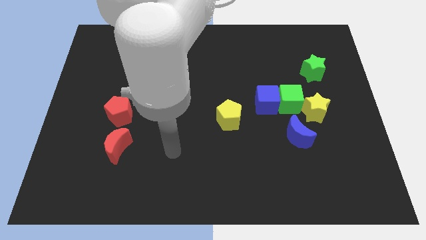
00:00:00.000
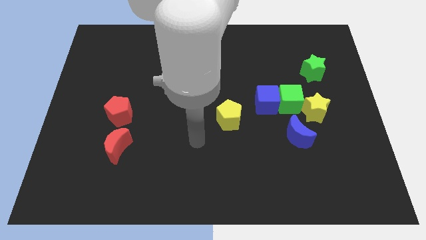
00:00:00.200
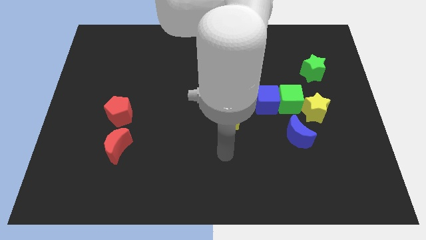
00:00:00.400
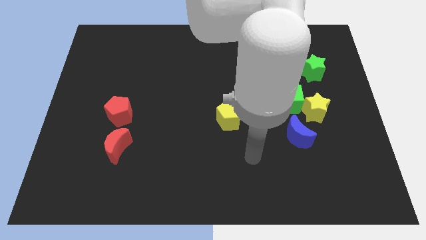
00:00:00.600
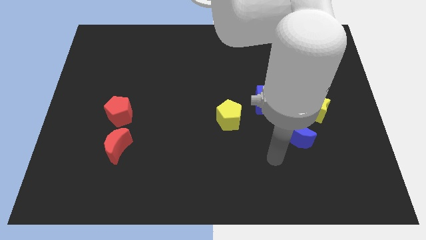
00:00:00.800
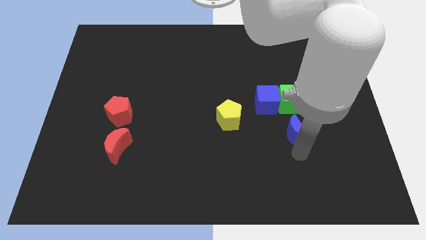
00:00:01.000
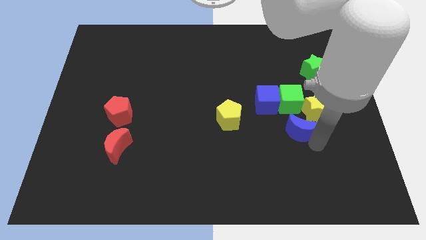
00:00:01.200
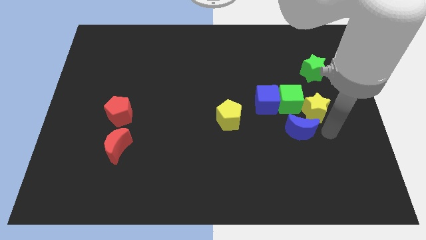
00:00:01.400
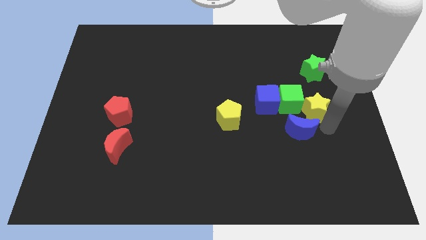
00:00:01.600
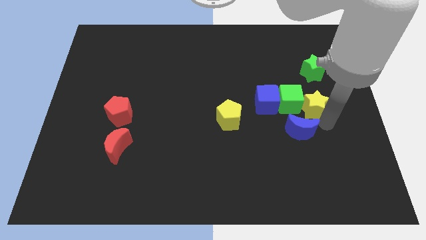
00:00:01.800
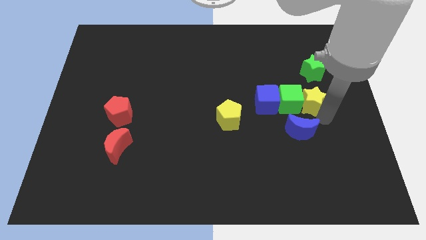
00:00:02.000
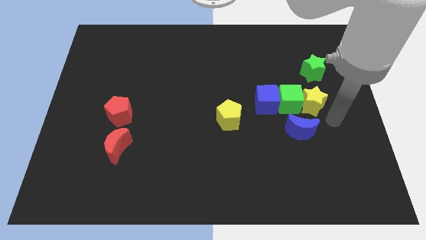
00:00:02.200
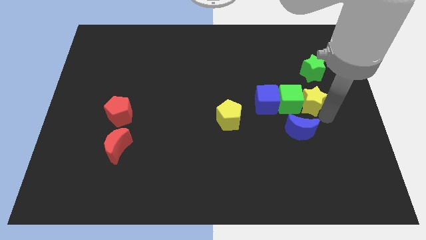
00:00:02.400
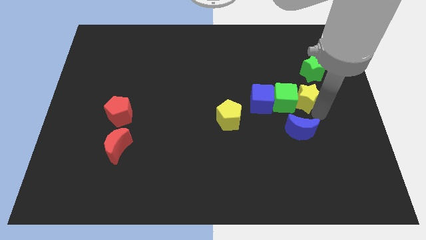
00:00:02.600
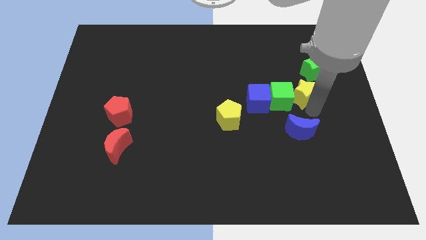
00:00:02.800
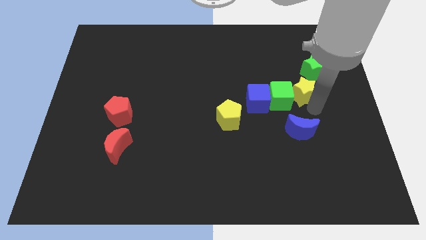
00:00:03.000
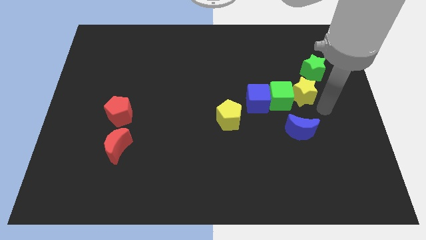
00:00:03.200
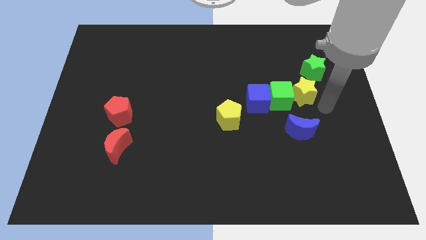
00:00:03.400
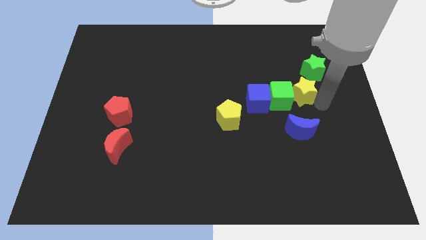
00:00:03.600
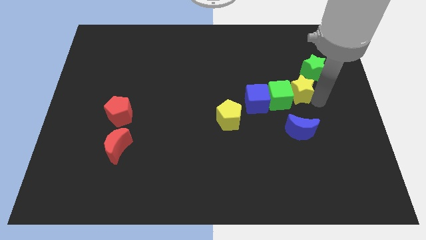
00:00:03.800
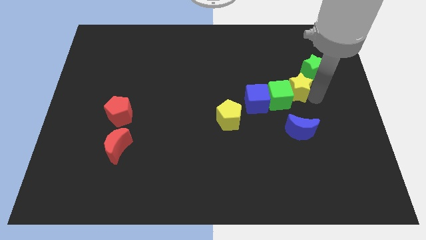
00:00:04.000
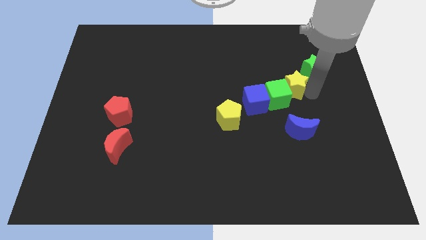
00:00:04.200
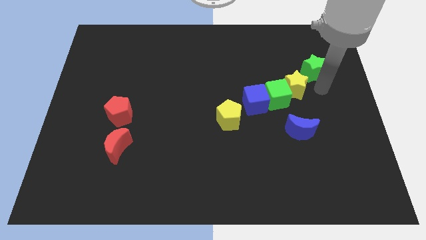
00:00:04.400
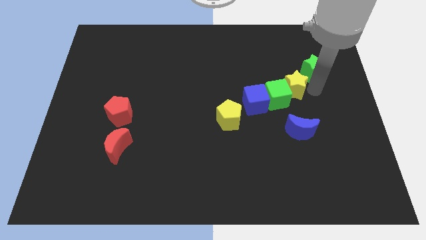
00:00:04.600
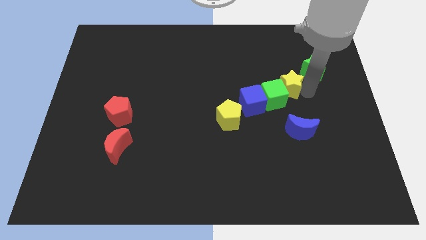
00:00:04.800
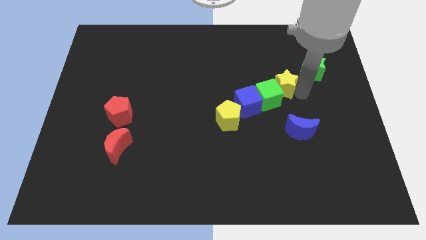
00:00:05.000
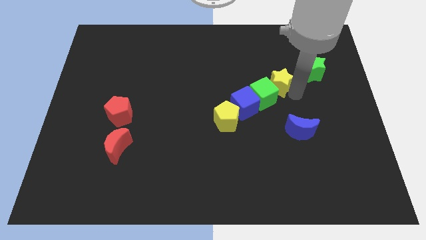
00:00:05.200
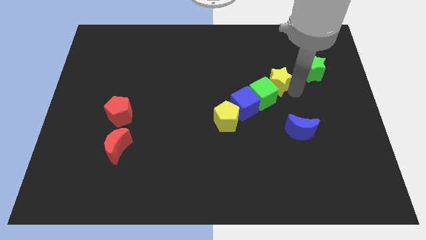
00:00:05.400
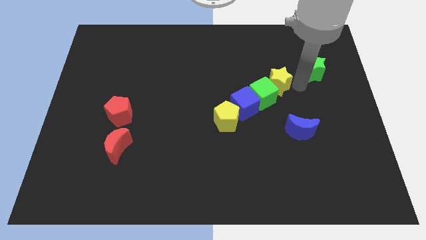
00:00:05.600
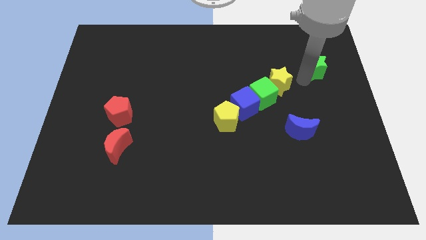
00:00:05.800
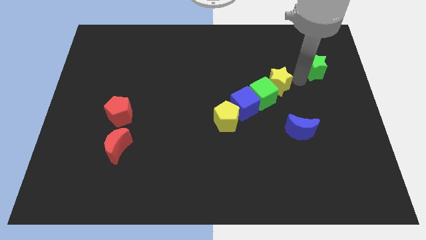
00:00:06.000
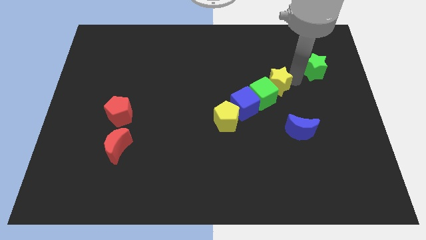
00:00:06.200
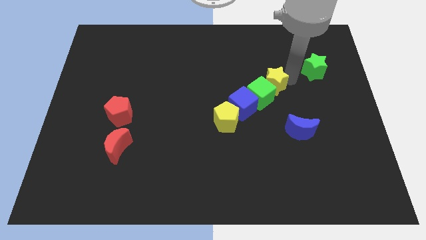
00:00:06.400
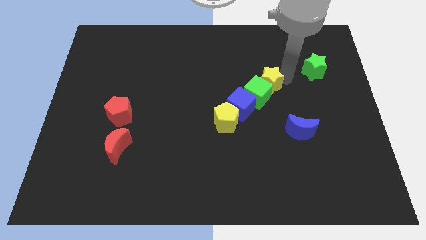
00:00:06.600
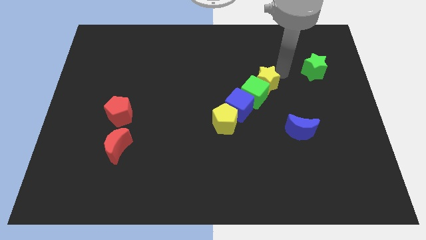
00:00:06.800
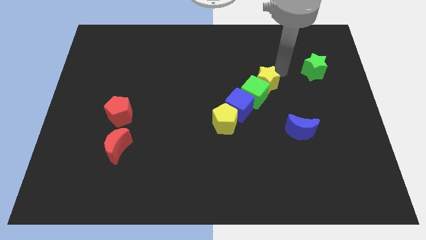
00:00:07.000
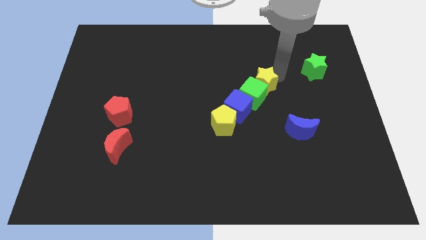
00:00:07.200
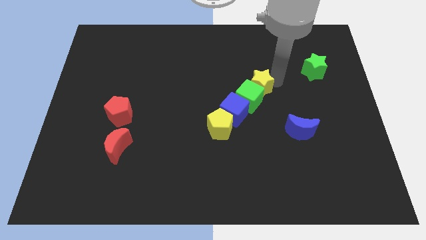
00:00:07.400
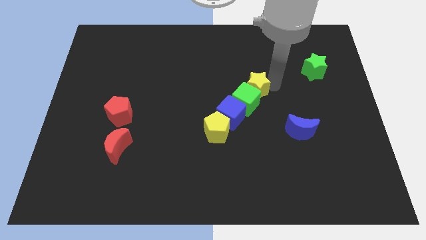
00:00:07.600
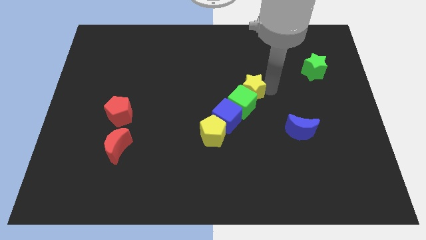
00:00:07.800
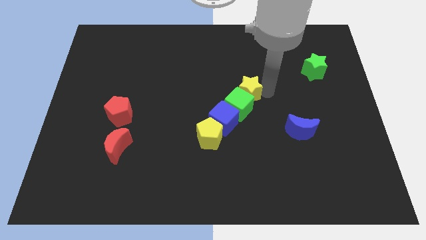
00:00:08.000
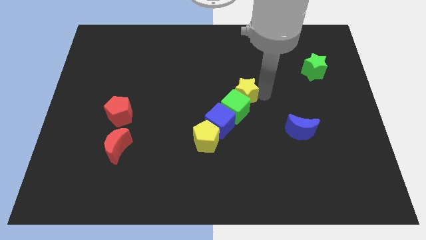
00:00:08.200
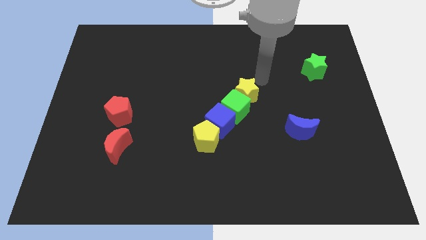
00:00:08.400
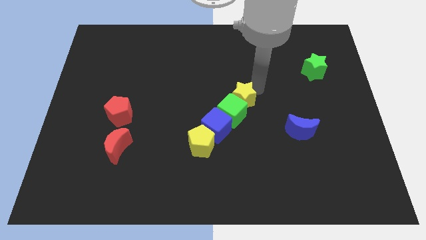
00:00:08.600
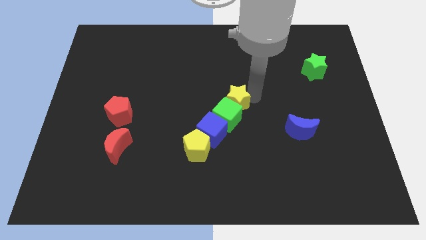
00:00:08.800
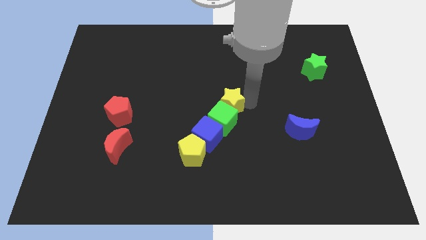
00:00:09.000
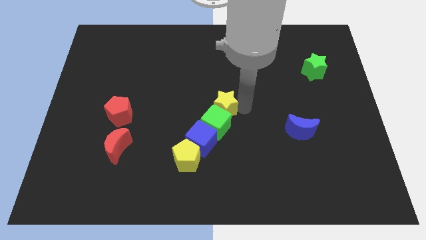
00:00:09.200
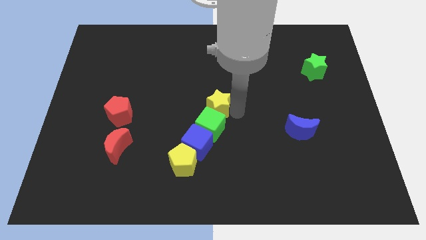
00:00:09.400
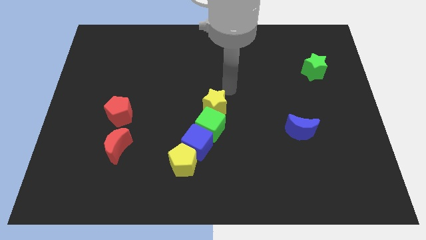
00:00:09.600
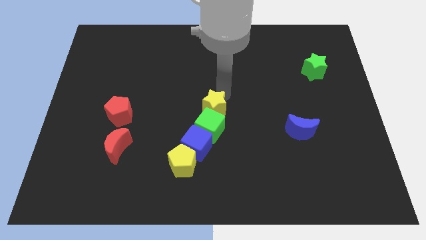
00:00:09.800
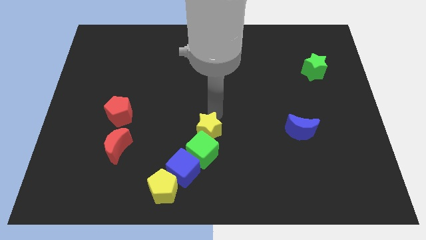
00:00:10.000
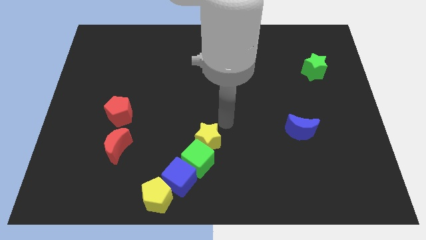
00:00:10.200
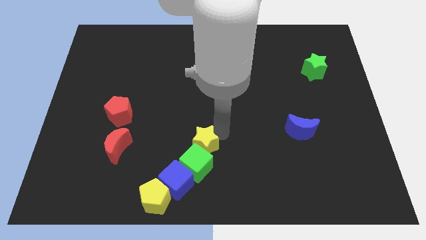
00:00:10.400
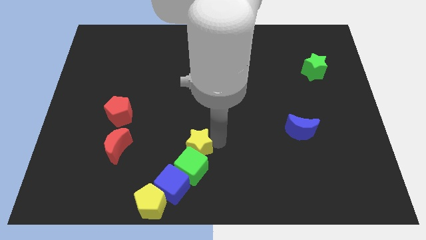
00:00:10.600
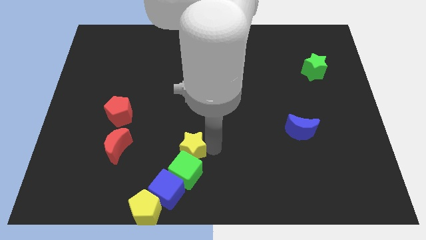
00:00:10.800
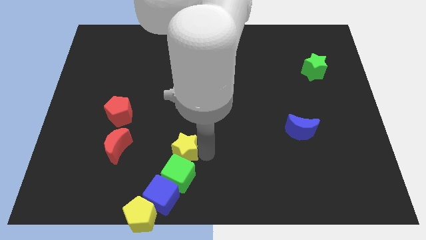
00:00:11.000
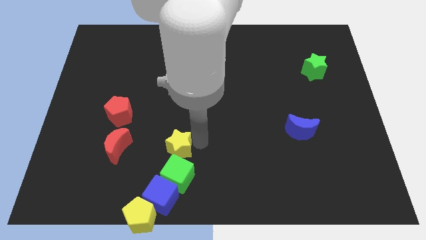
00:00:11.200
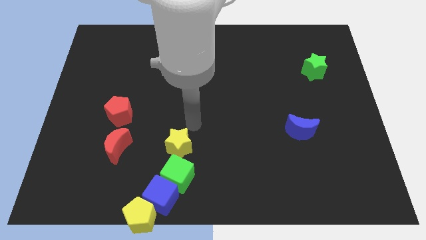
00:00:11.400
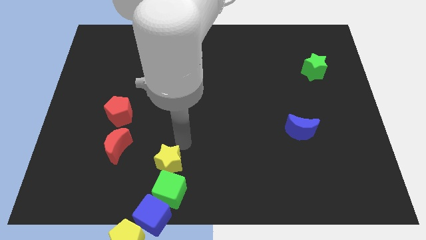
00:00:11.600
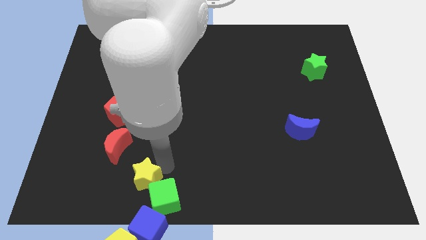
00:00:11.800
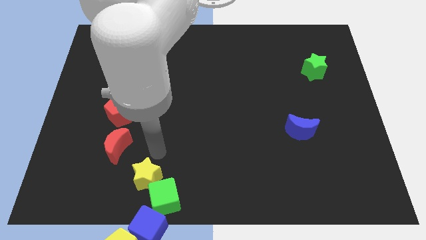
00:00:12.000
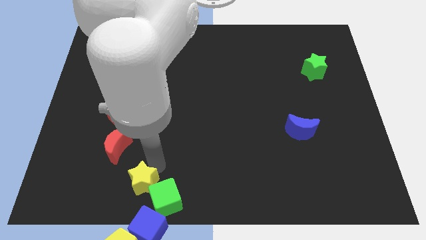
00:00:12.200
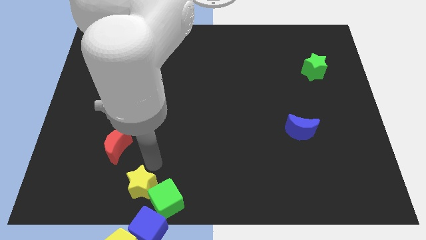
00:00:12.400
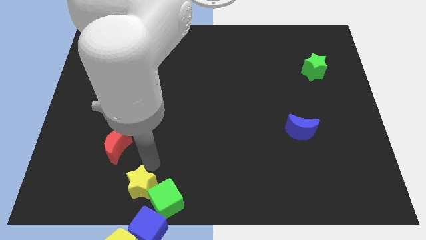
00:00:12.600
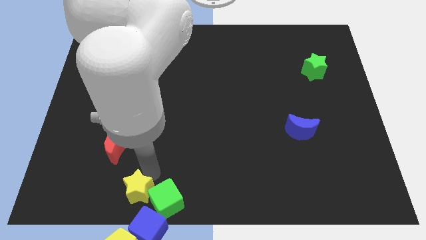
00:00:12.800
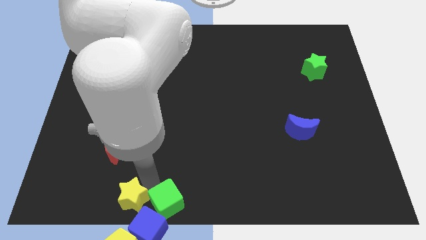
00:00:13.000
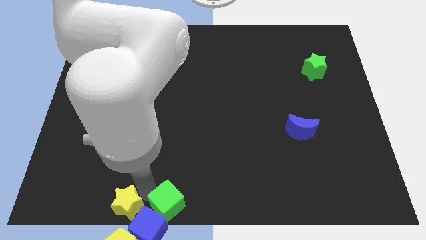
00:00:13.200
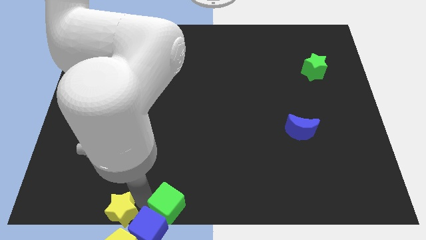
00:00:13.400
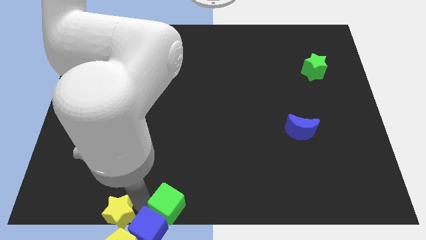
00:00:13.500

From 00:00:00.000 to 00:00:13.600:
put the yellow star next to the yellow pentagon
